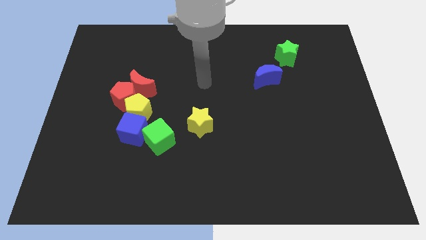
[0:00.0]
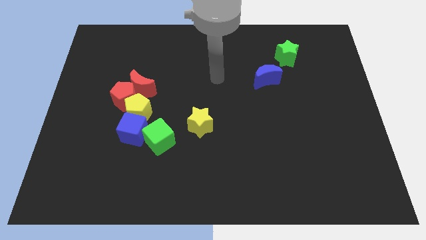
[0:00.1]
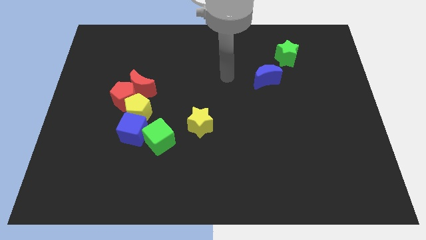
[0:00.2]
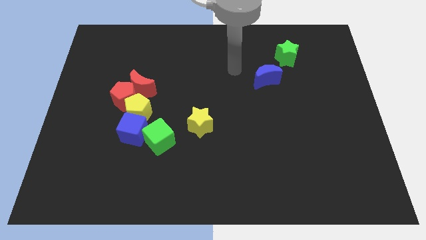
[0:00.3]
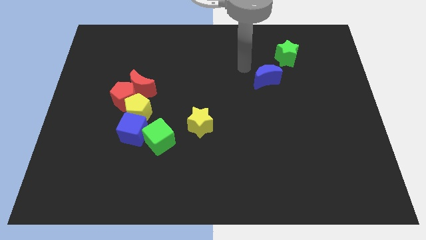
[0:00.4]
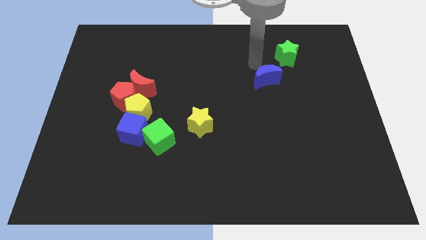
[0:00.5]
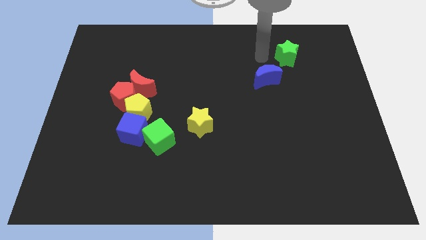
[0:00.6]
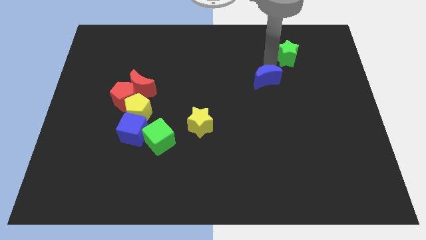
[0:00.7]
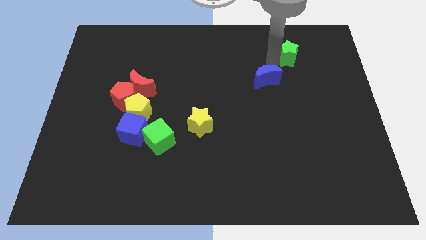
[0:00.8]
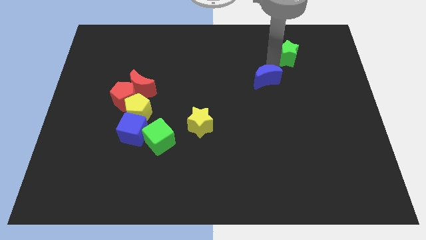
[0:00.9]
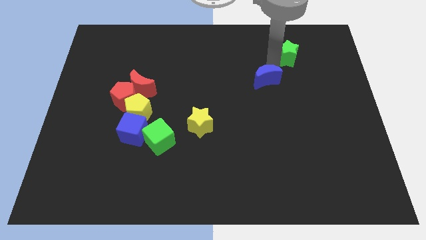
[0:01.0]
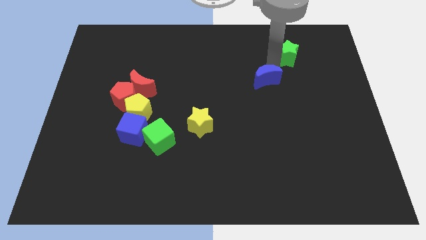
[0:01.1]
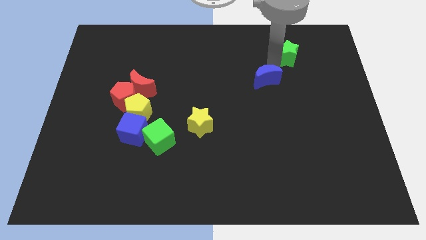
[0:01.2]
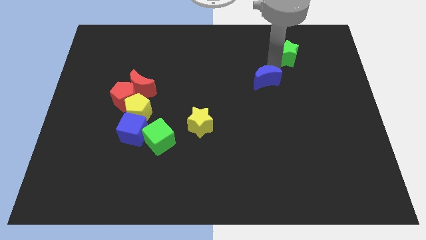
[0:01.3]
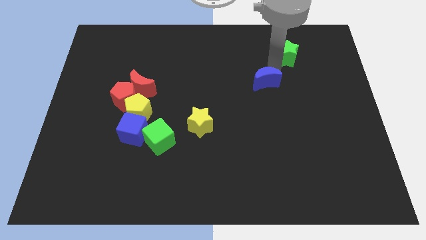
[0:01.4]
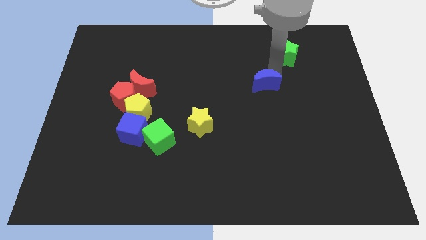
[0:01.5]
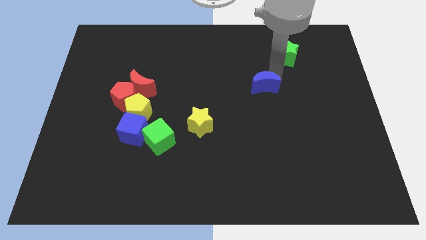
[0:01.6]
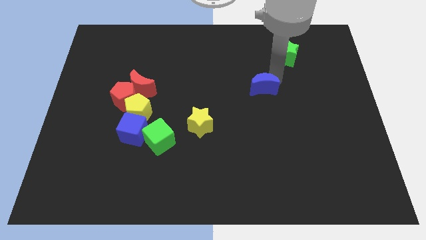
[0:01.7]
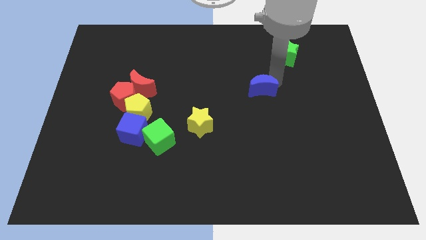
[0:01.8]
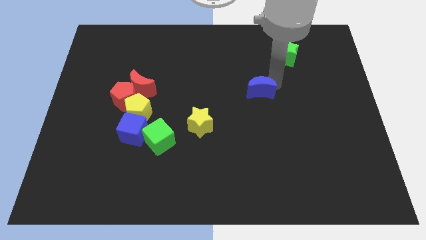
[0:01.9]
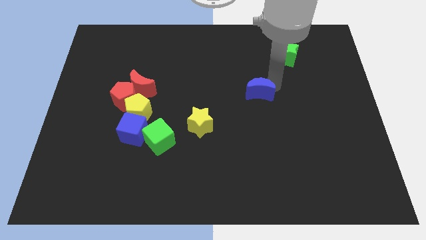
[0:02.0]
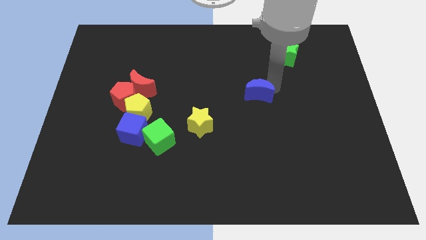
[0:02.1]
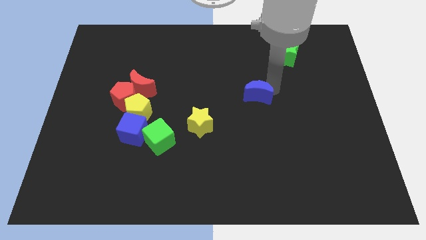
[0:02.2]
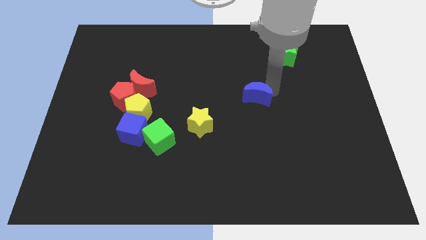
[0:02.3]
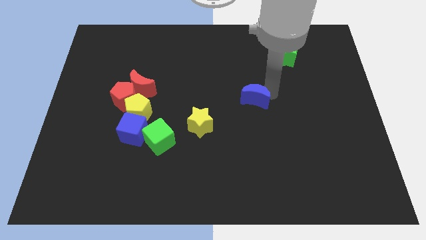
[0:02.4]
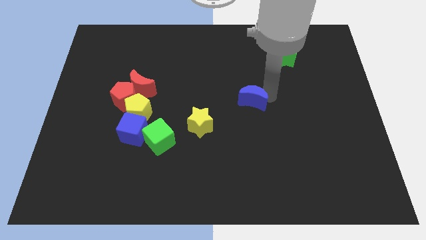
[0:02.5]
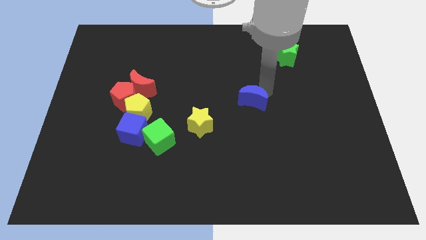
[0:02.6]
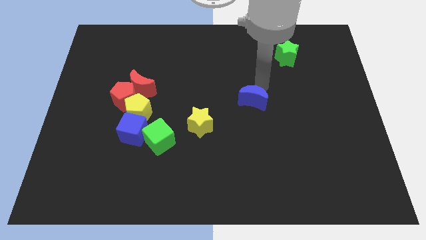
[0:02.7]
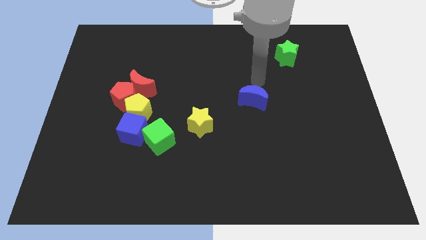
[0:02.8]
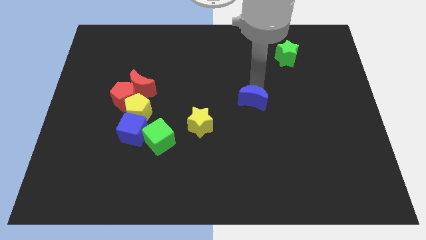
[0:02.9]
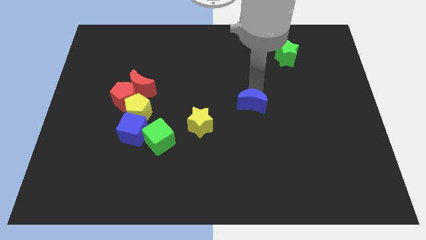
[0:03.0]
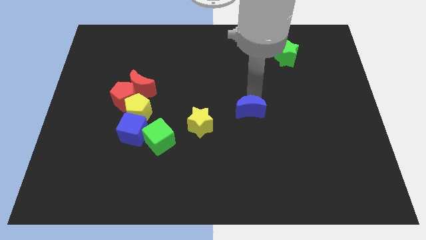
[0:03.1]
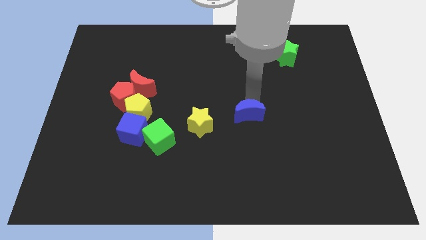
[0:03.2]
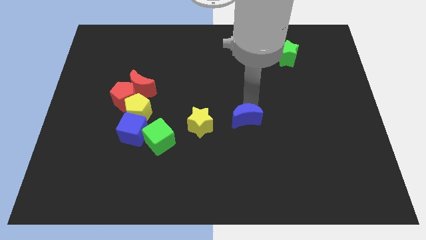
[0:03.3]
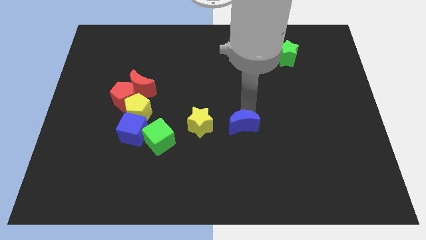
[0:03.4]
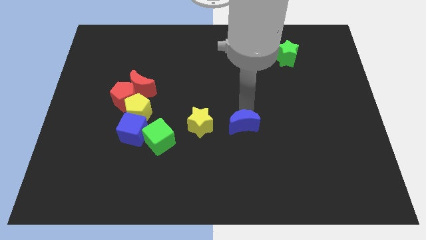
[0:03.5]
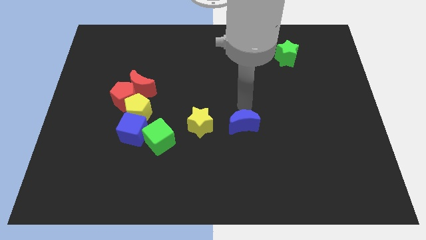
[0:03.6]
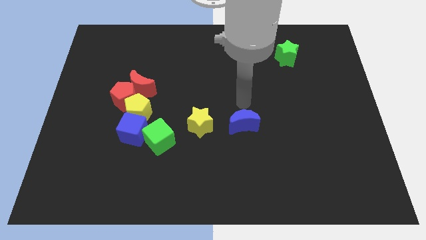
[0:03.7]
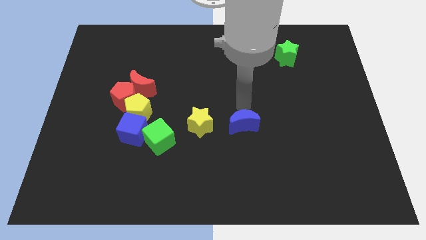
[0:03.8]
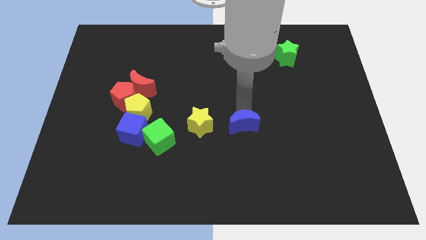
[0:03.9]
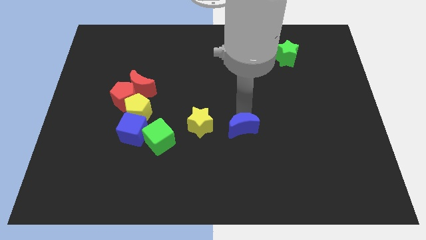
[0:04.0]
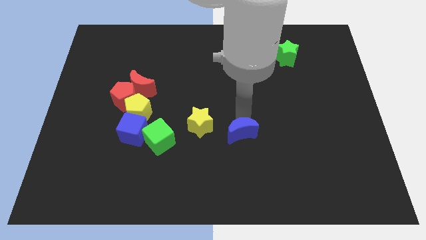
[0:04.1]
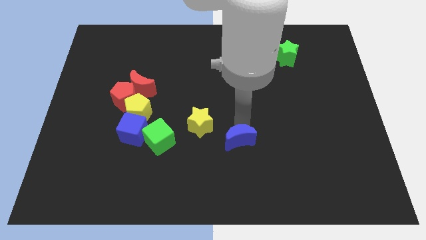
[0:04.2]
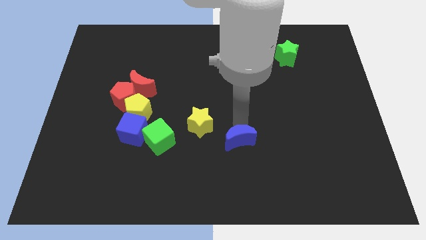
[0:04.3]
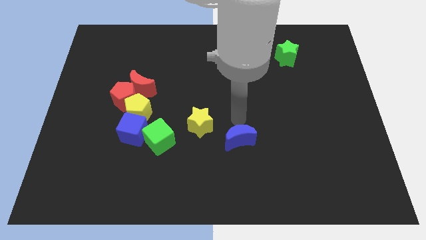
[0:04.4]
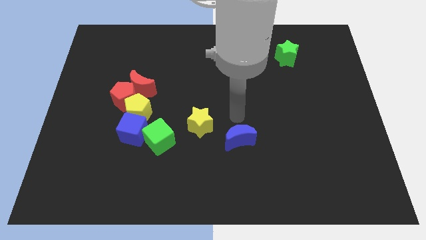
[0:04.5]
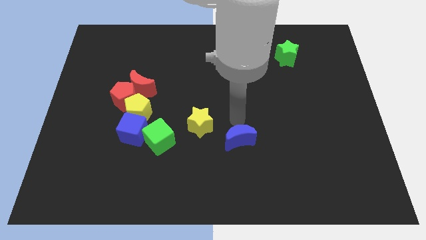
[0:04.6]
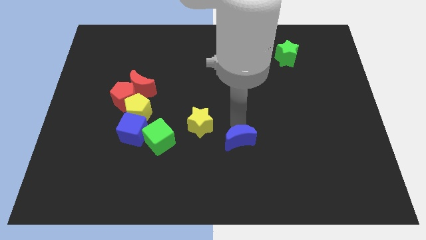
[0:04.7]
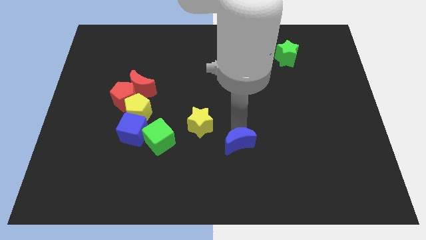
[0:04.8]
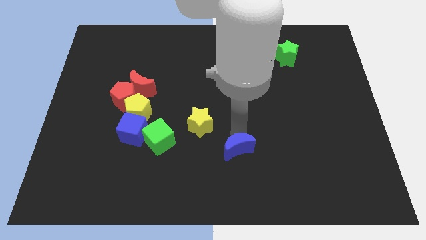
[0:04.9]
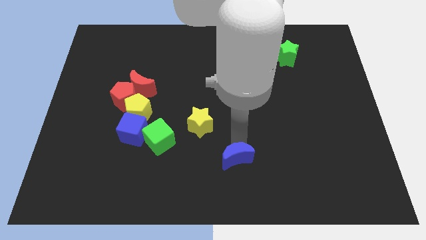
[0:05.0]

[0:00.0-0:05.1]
move the blue moon to the bottom side

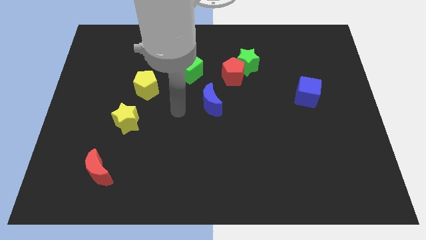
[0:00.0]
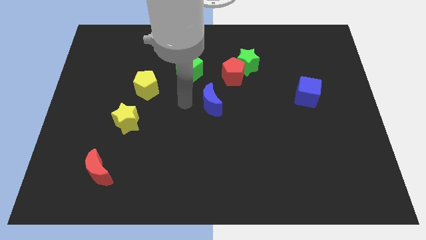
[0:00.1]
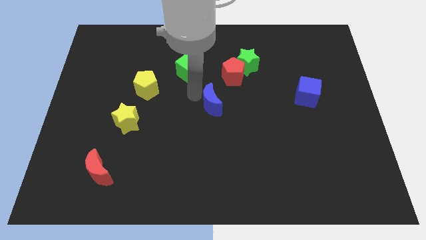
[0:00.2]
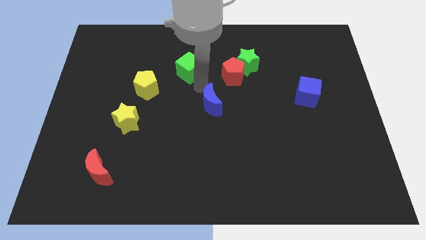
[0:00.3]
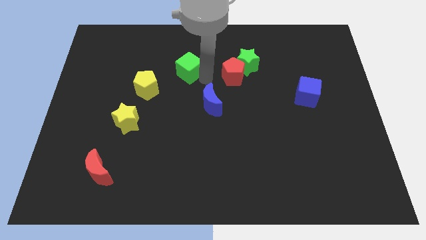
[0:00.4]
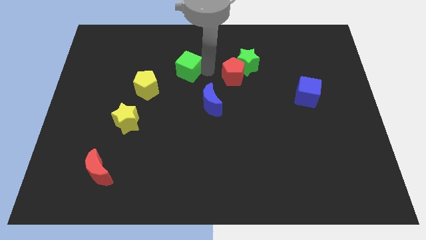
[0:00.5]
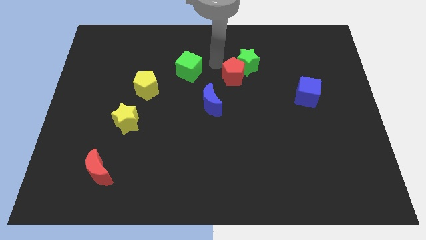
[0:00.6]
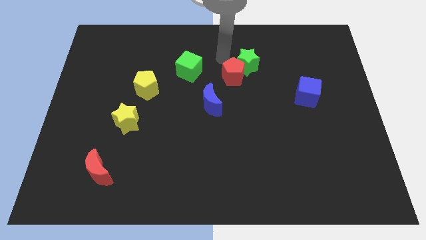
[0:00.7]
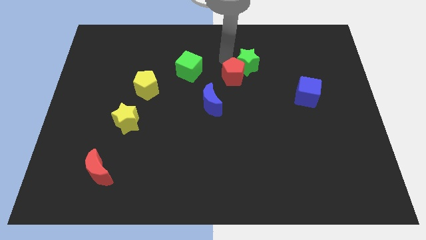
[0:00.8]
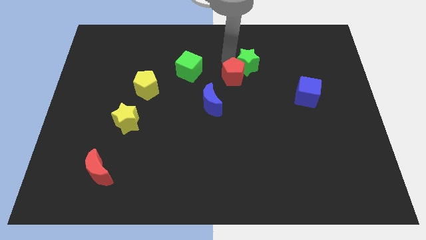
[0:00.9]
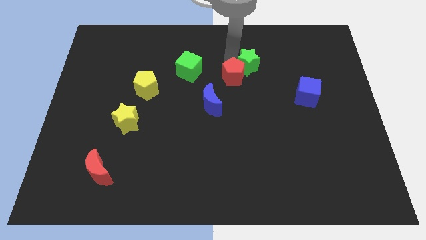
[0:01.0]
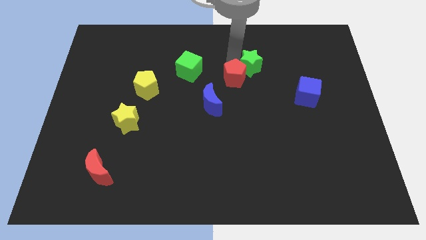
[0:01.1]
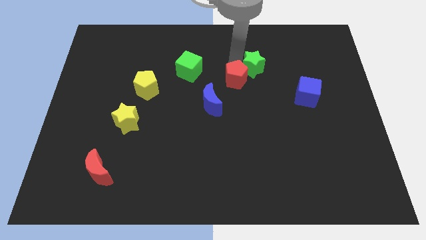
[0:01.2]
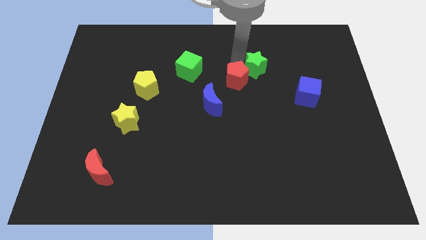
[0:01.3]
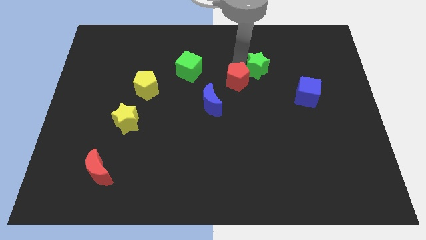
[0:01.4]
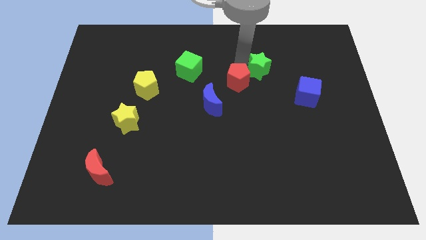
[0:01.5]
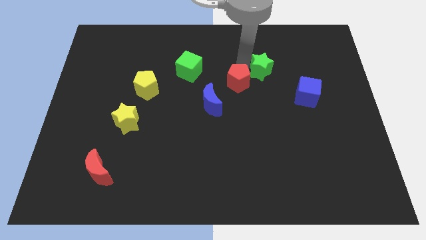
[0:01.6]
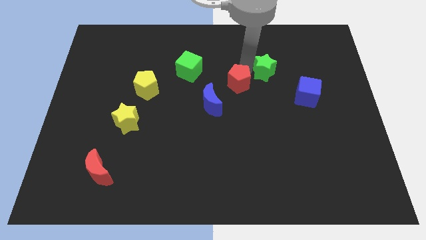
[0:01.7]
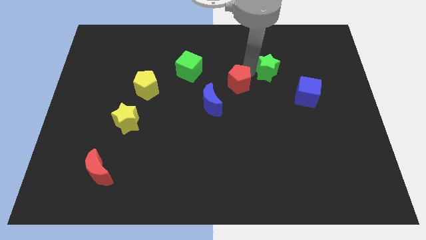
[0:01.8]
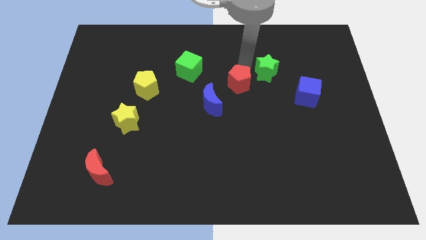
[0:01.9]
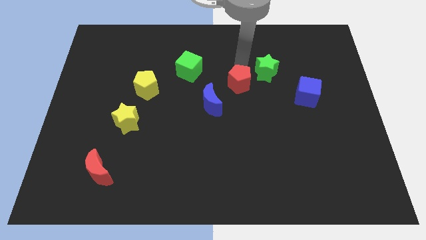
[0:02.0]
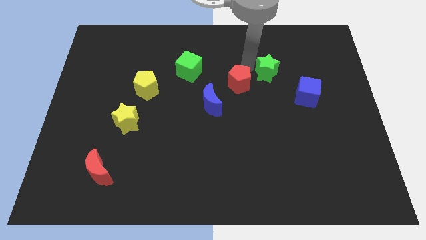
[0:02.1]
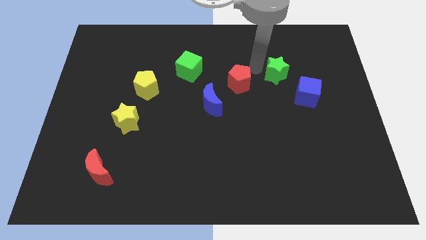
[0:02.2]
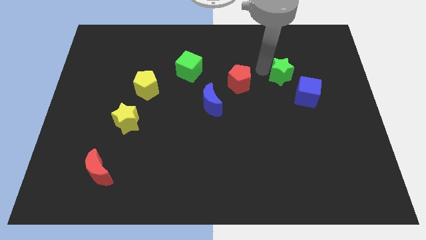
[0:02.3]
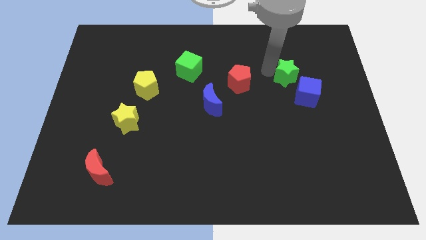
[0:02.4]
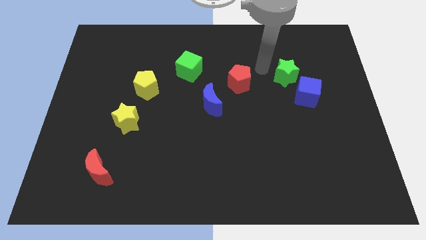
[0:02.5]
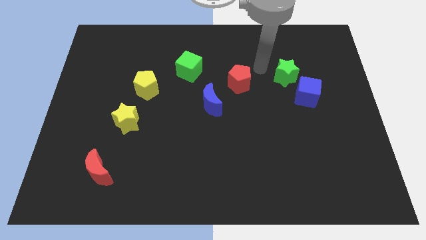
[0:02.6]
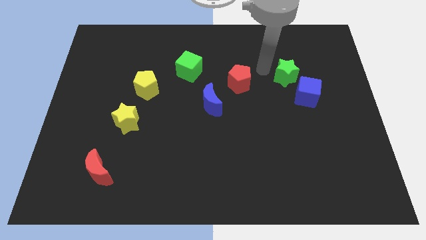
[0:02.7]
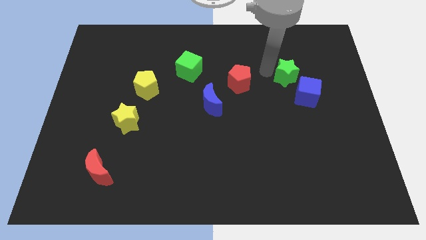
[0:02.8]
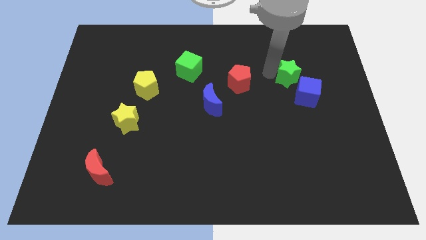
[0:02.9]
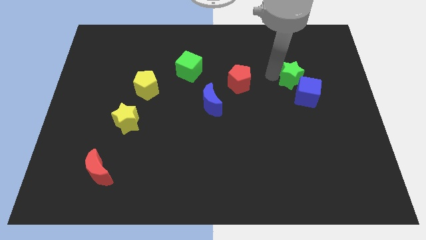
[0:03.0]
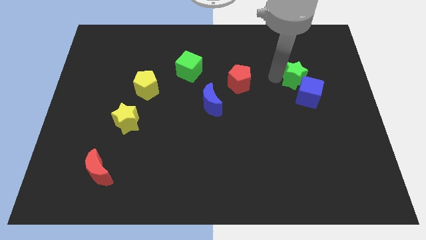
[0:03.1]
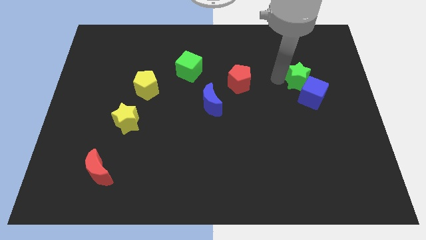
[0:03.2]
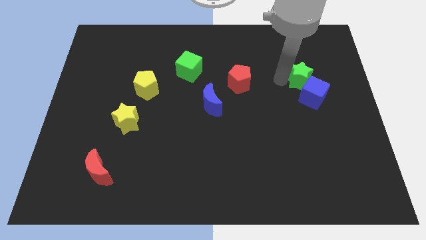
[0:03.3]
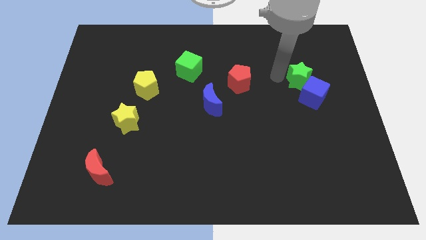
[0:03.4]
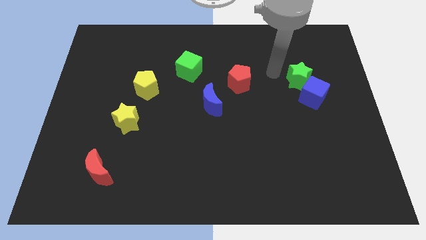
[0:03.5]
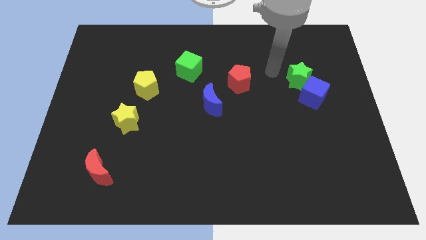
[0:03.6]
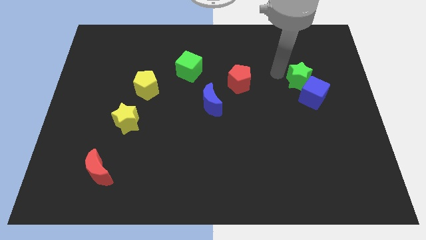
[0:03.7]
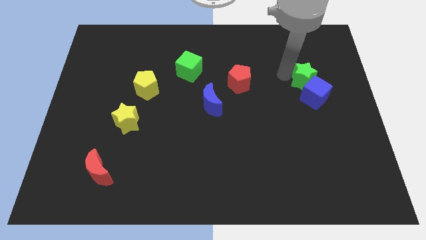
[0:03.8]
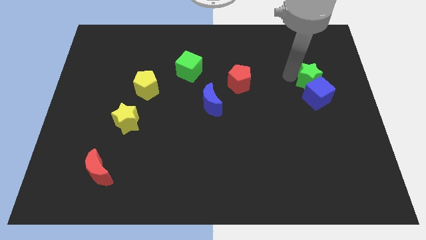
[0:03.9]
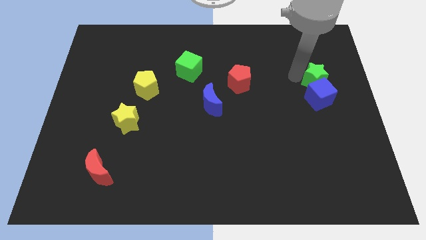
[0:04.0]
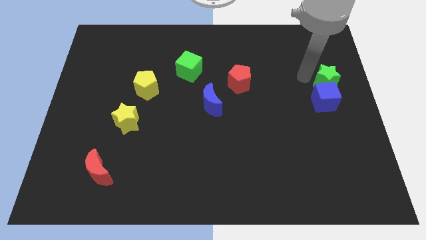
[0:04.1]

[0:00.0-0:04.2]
put the green star to the center right
